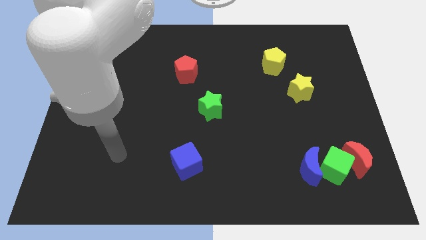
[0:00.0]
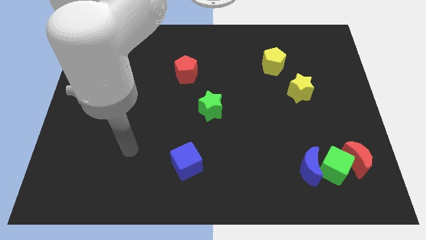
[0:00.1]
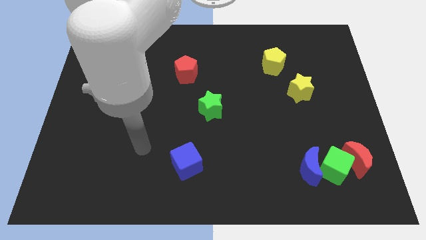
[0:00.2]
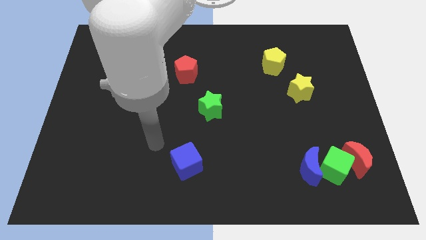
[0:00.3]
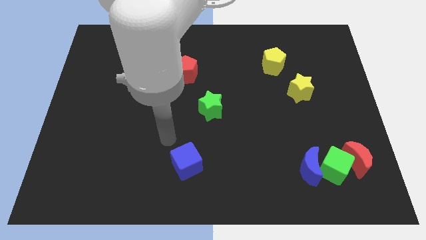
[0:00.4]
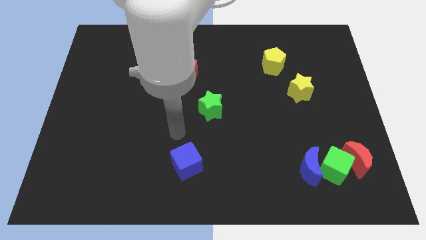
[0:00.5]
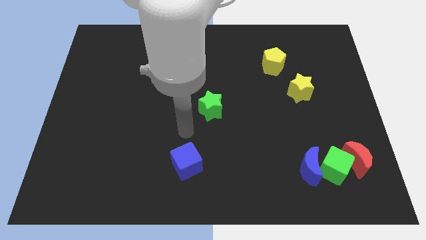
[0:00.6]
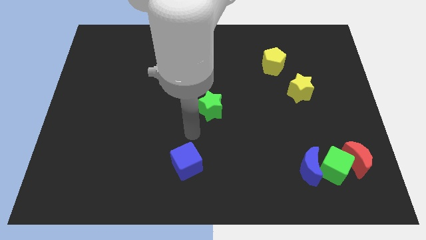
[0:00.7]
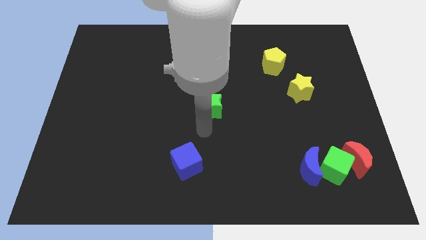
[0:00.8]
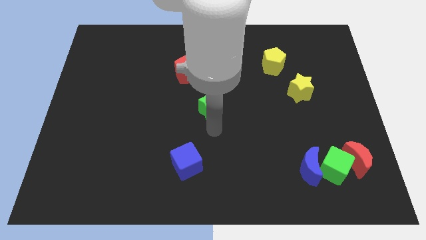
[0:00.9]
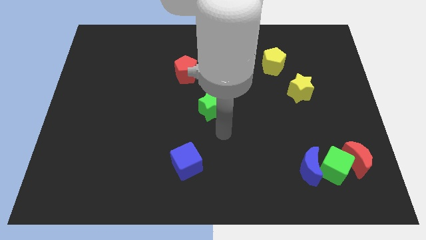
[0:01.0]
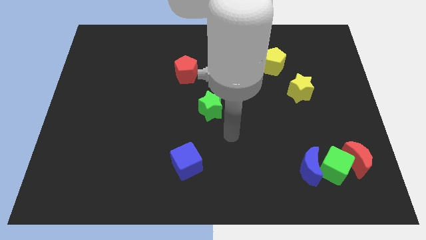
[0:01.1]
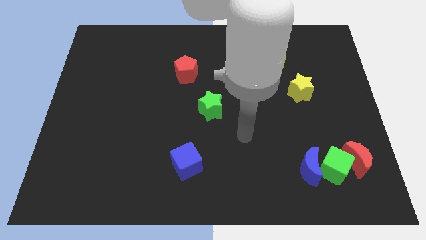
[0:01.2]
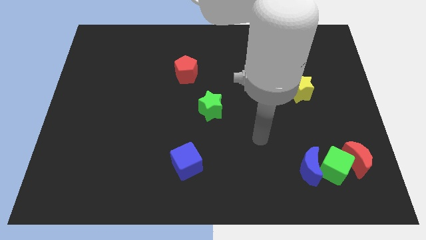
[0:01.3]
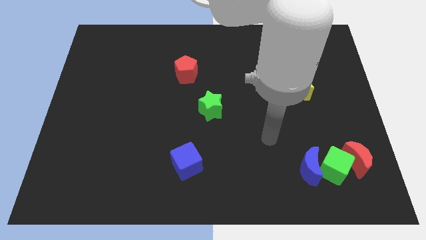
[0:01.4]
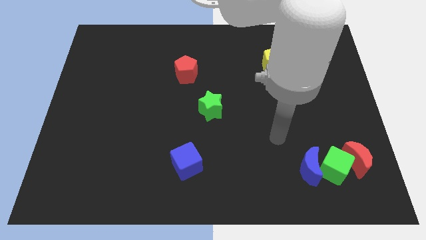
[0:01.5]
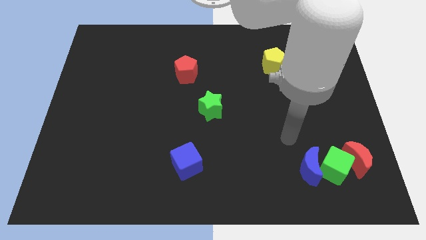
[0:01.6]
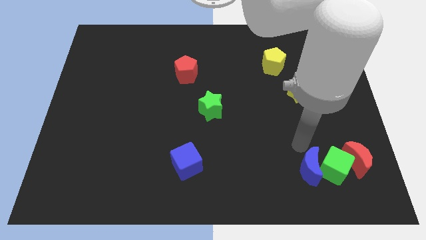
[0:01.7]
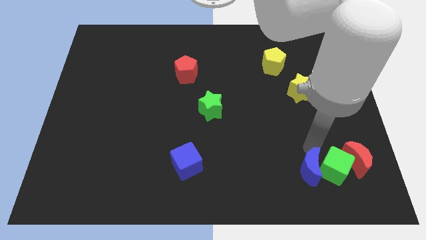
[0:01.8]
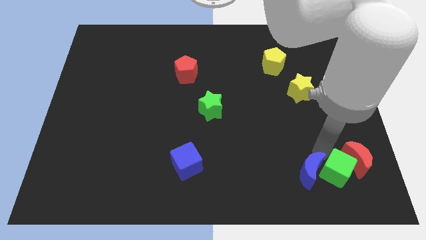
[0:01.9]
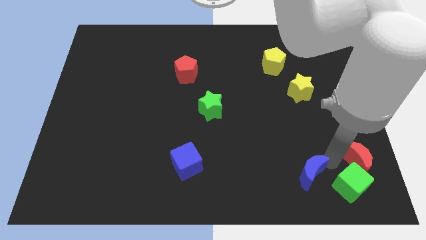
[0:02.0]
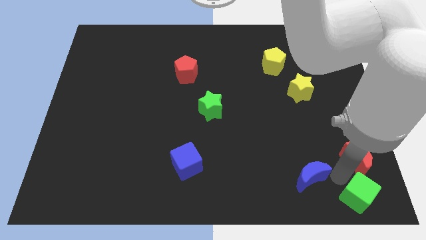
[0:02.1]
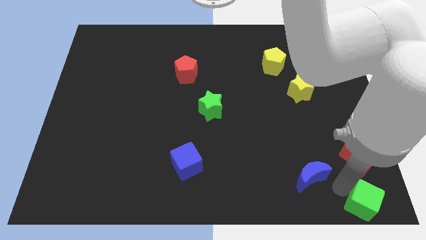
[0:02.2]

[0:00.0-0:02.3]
separate the blue moon from the green cube

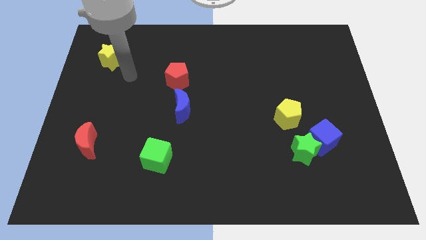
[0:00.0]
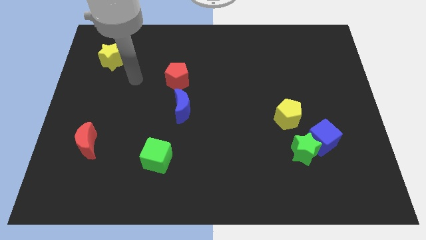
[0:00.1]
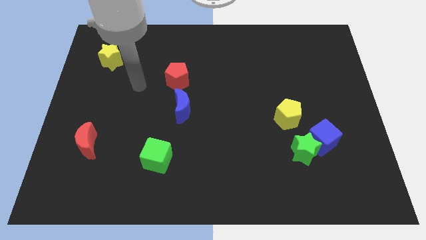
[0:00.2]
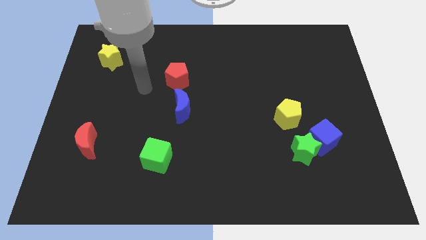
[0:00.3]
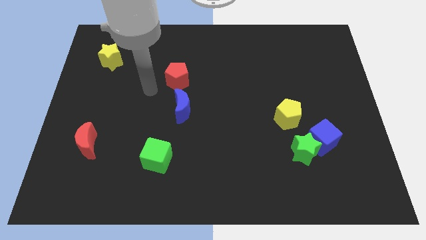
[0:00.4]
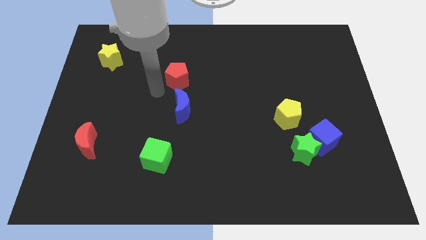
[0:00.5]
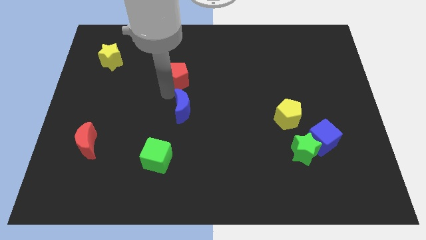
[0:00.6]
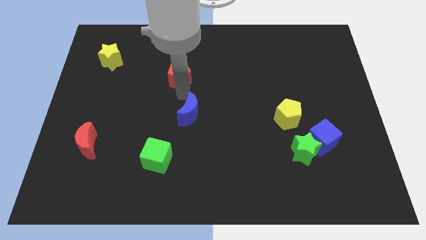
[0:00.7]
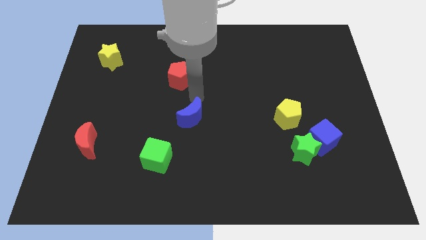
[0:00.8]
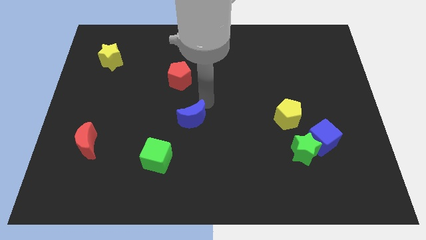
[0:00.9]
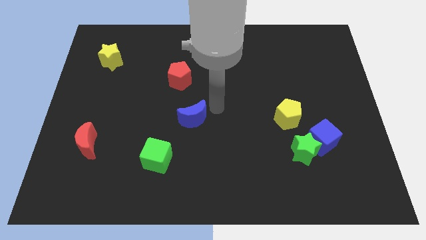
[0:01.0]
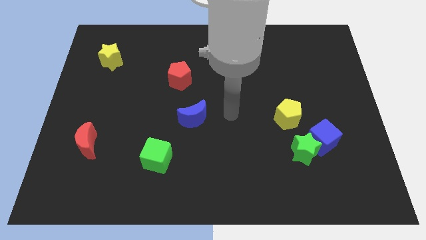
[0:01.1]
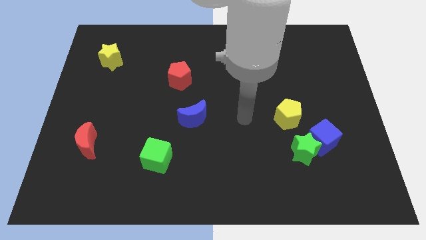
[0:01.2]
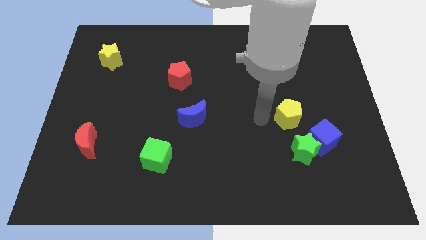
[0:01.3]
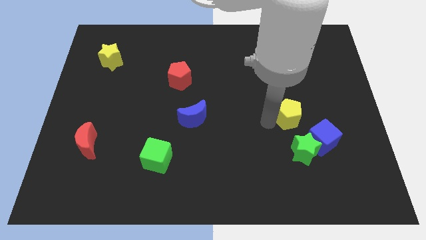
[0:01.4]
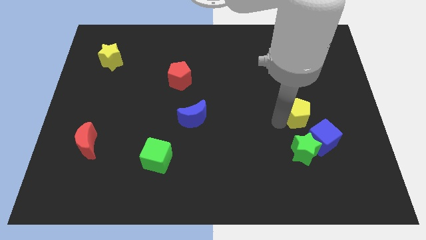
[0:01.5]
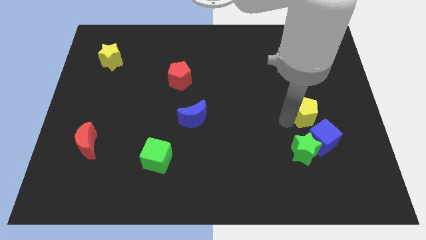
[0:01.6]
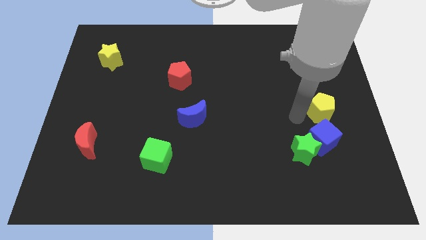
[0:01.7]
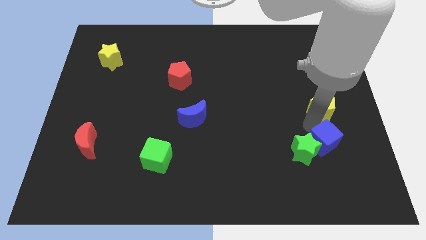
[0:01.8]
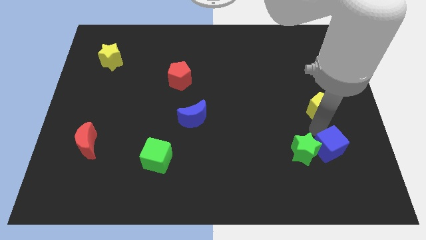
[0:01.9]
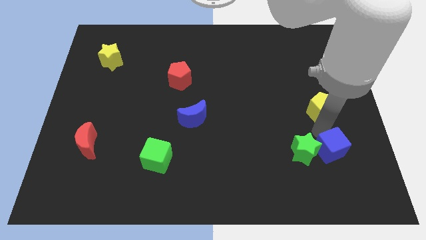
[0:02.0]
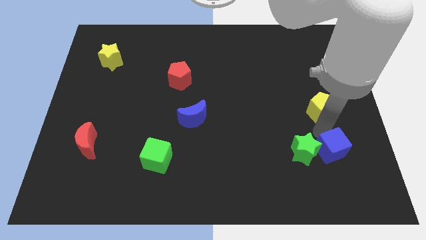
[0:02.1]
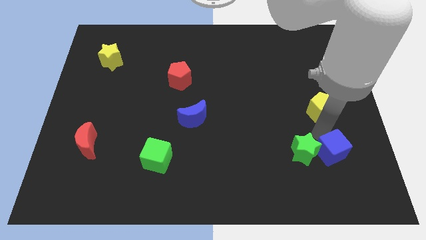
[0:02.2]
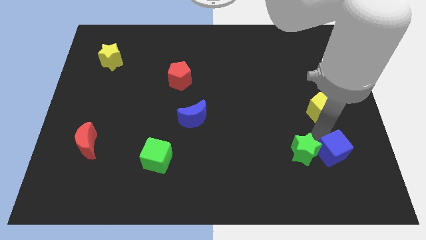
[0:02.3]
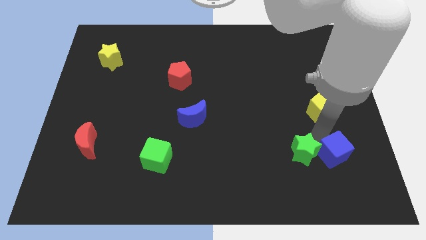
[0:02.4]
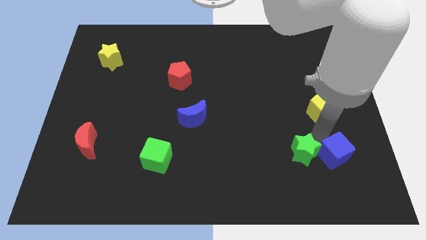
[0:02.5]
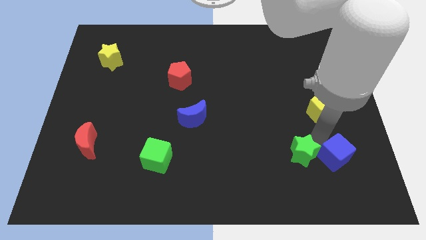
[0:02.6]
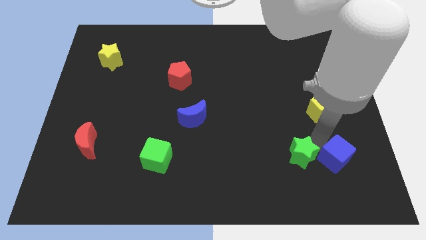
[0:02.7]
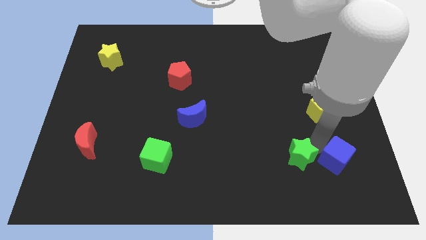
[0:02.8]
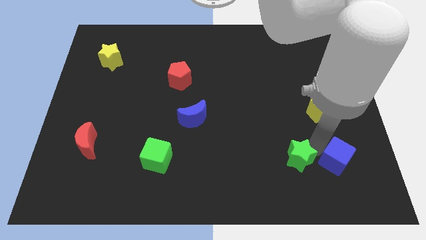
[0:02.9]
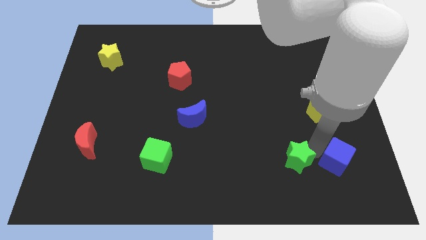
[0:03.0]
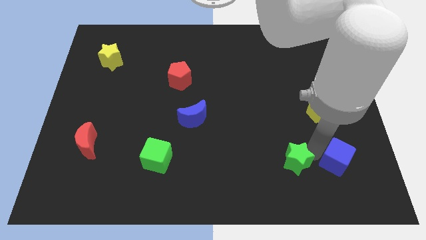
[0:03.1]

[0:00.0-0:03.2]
pull the green star apart from the blue cube and yellow pentagon

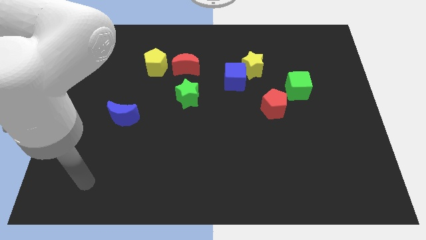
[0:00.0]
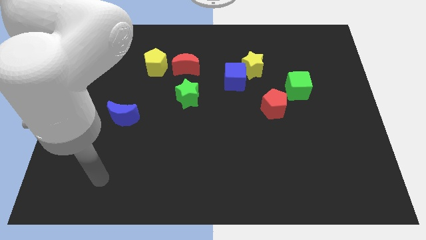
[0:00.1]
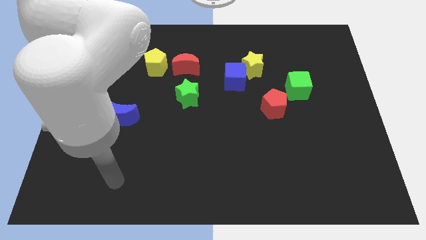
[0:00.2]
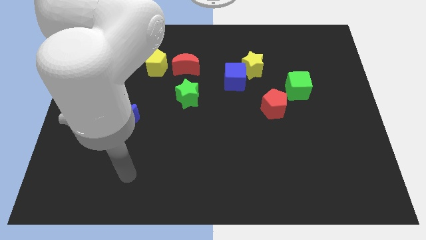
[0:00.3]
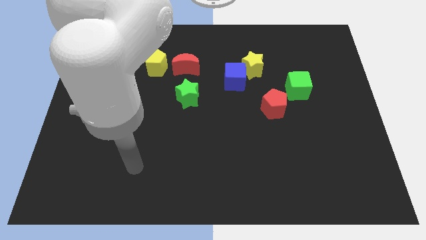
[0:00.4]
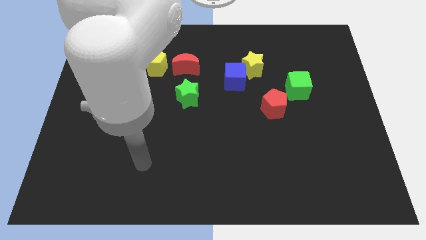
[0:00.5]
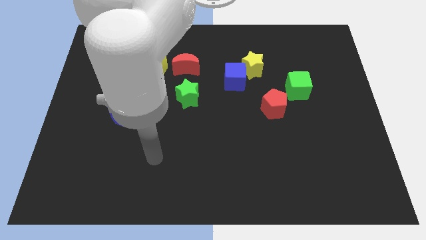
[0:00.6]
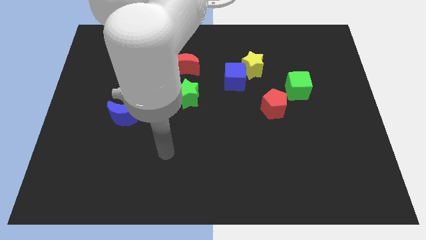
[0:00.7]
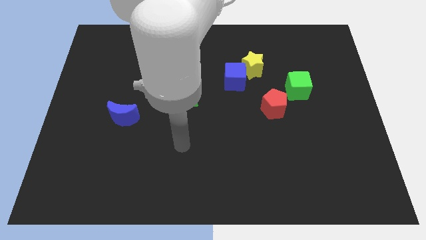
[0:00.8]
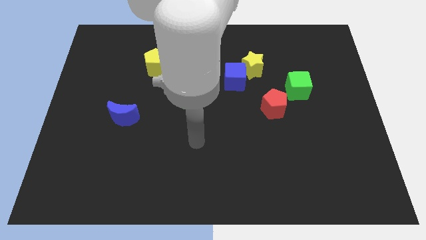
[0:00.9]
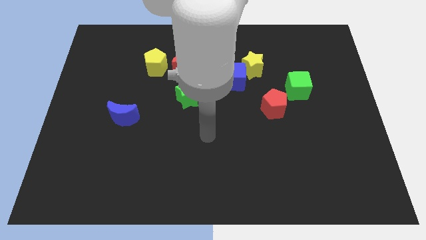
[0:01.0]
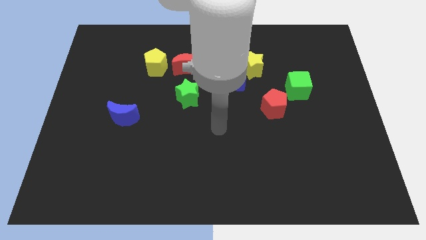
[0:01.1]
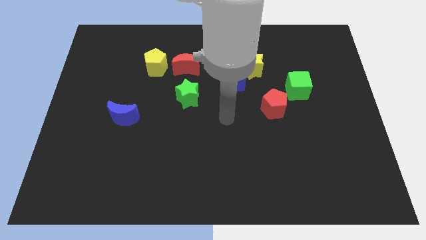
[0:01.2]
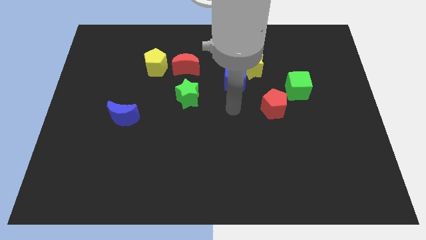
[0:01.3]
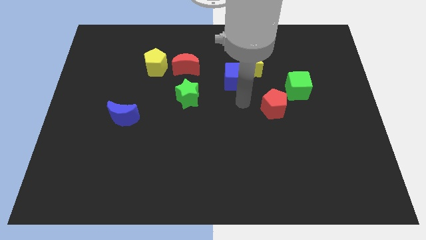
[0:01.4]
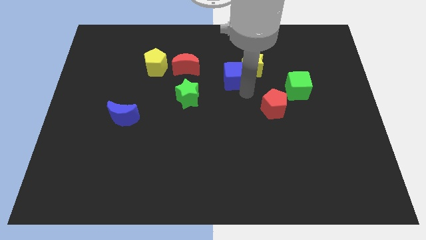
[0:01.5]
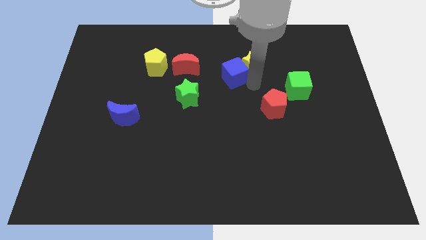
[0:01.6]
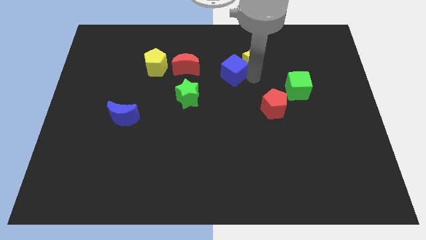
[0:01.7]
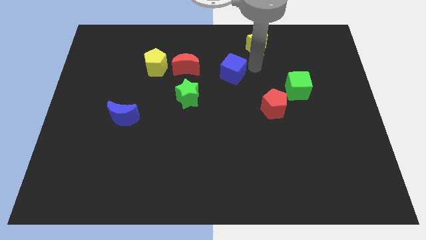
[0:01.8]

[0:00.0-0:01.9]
separate the blue cube from the yellow star

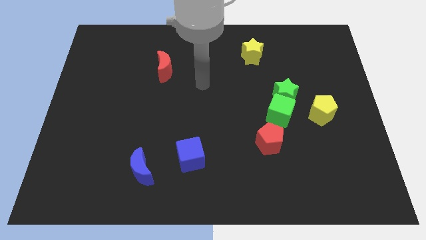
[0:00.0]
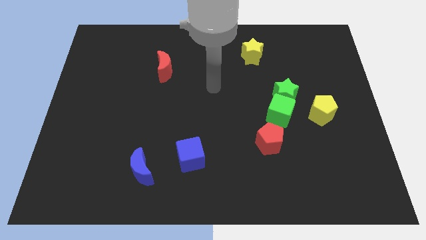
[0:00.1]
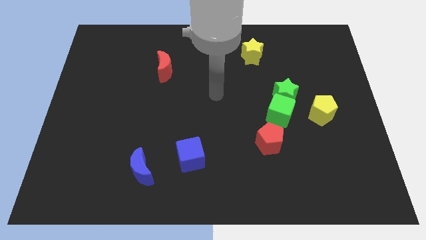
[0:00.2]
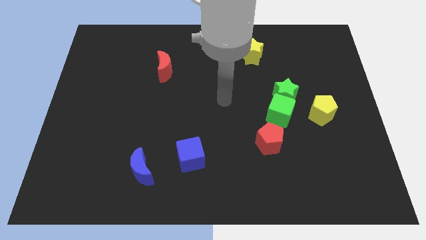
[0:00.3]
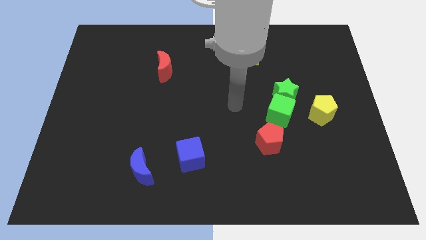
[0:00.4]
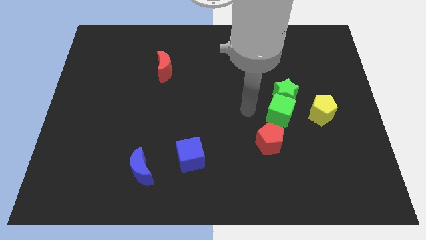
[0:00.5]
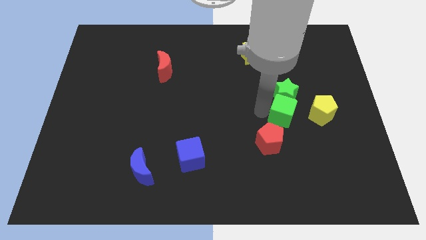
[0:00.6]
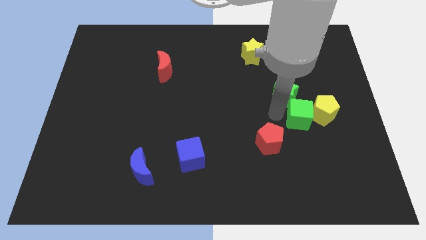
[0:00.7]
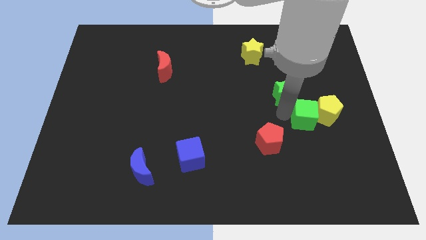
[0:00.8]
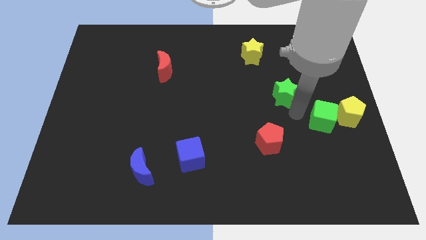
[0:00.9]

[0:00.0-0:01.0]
pull the green star apart from the green cube and yellow pentagon

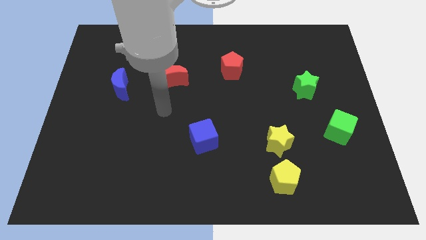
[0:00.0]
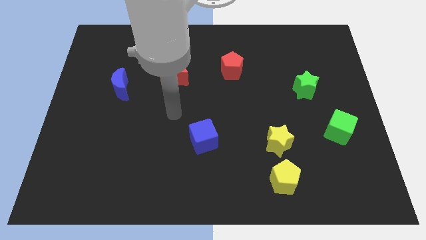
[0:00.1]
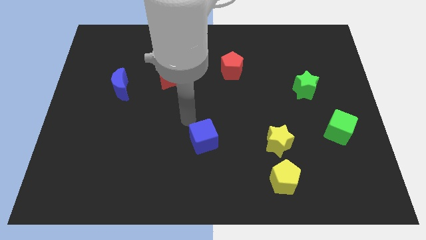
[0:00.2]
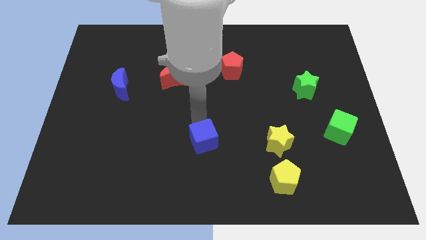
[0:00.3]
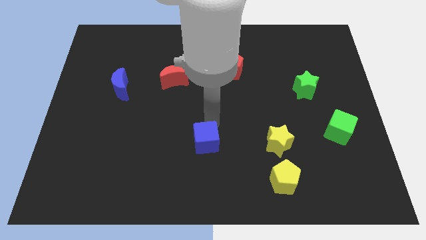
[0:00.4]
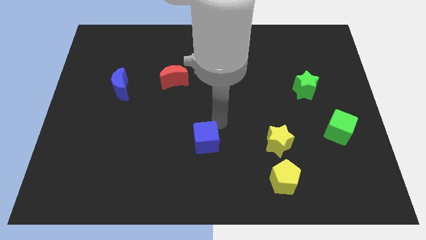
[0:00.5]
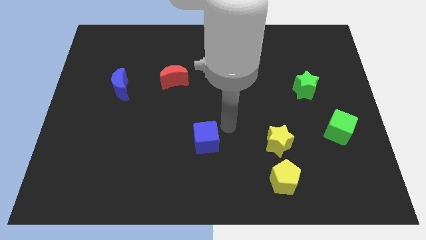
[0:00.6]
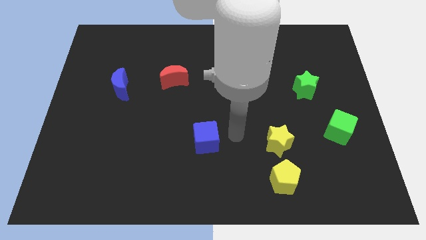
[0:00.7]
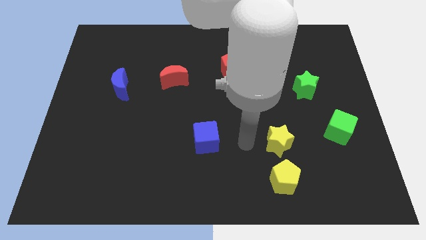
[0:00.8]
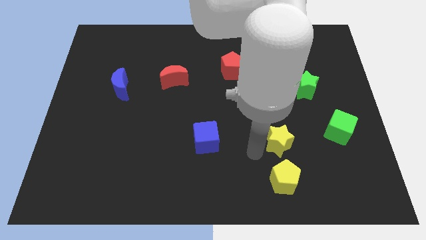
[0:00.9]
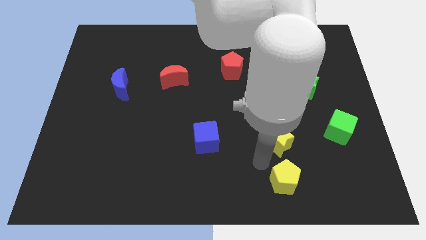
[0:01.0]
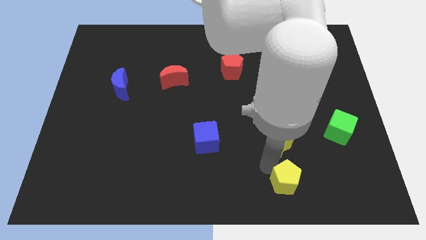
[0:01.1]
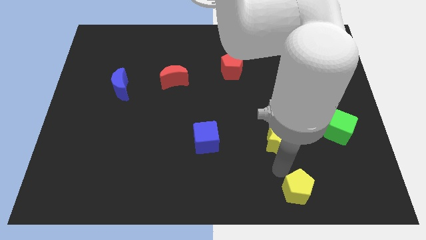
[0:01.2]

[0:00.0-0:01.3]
pull the yellow star apart from the yellow pentagon
